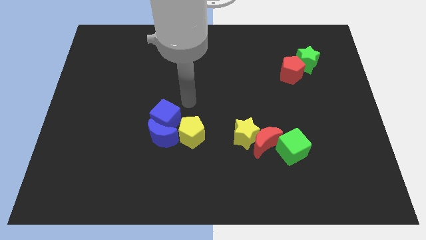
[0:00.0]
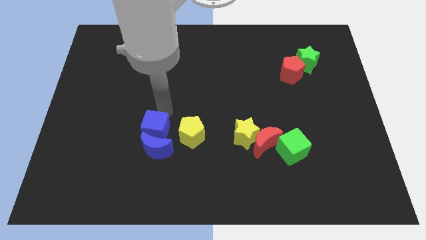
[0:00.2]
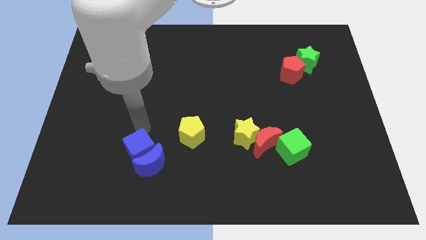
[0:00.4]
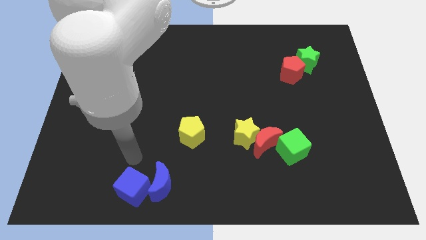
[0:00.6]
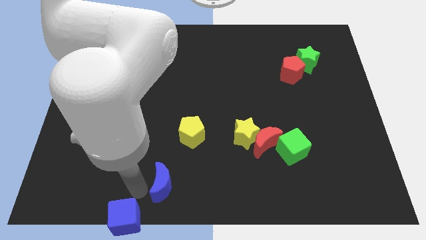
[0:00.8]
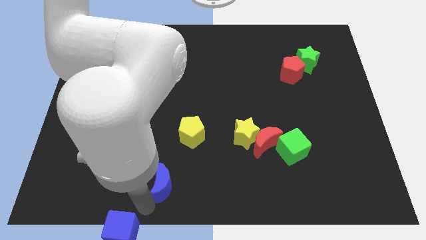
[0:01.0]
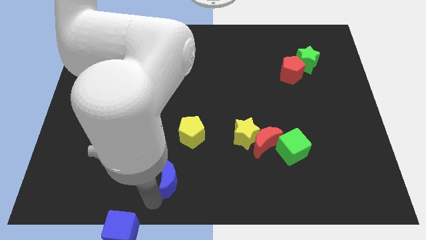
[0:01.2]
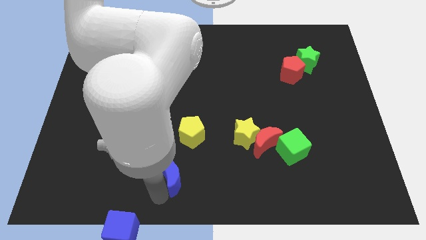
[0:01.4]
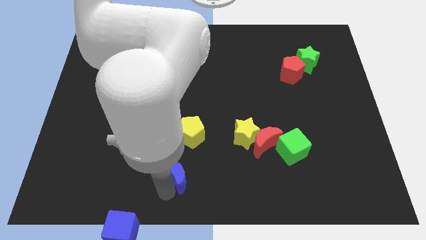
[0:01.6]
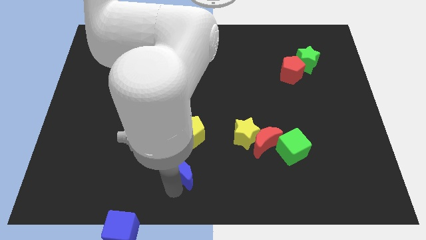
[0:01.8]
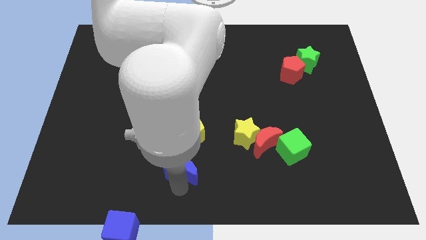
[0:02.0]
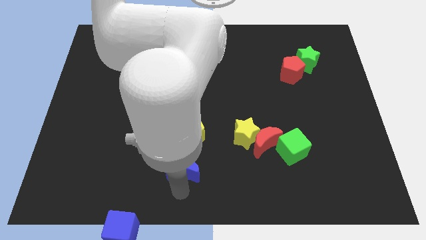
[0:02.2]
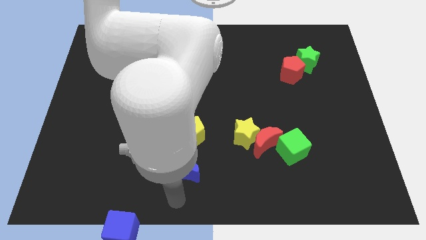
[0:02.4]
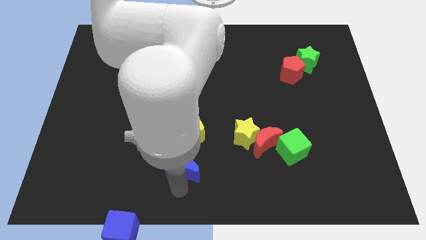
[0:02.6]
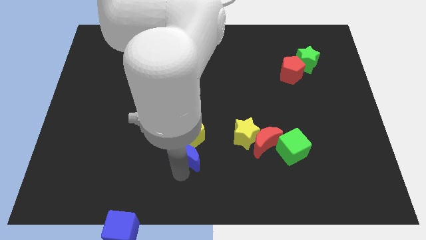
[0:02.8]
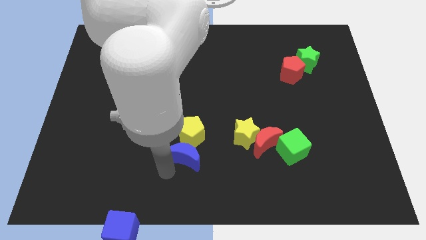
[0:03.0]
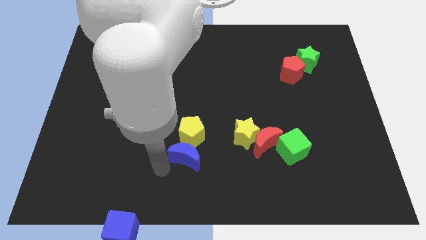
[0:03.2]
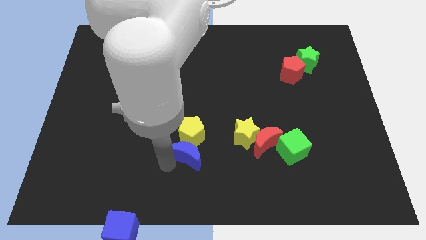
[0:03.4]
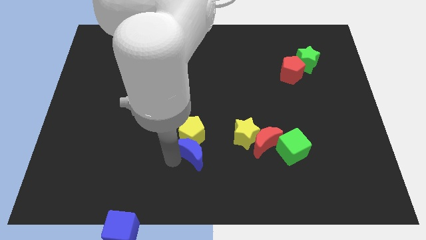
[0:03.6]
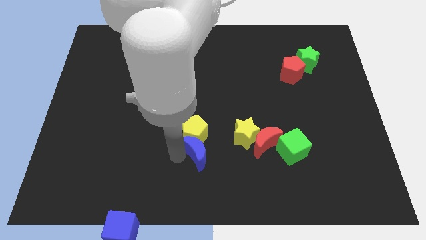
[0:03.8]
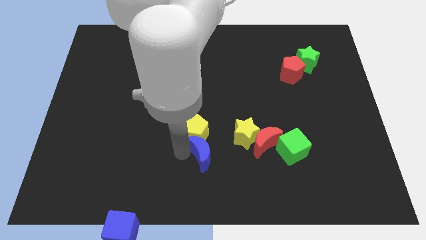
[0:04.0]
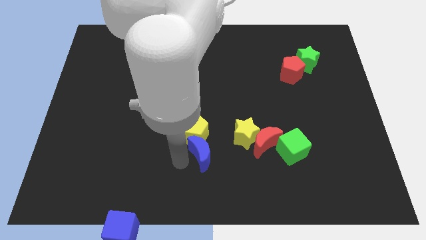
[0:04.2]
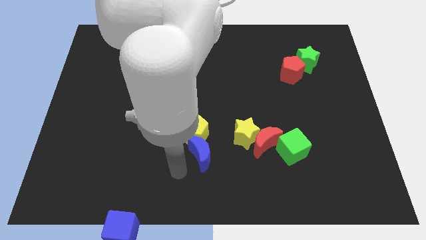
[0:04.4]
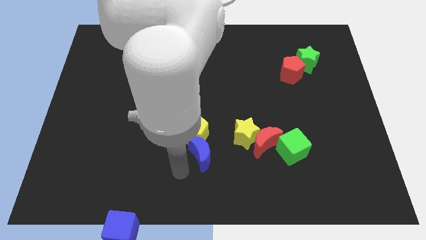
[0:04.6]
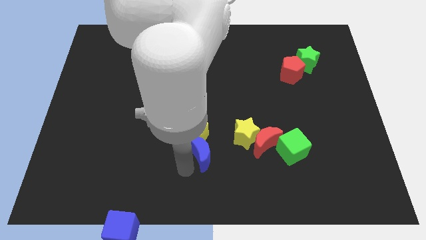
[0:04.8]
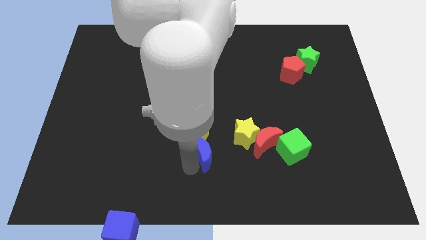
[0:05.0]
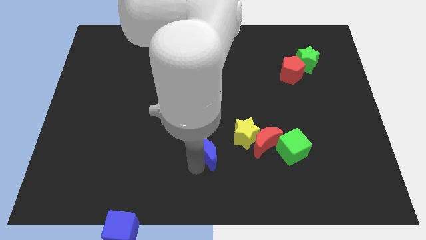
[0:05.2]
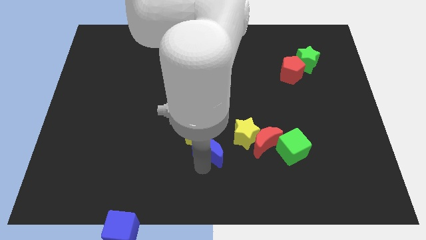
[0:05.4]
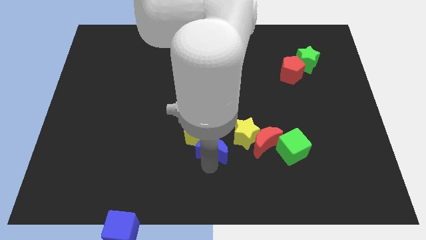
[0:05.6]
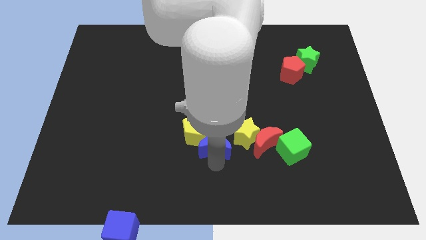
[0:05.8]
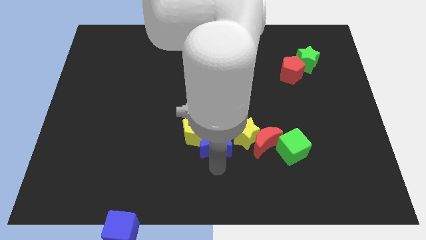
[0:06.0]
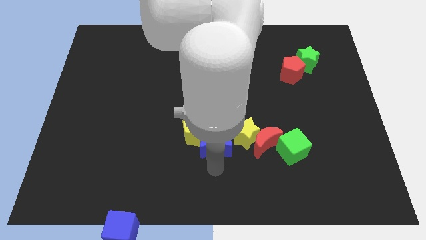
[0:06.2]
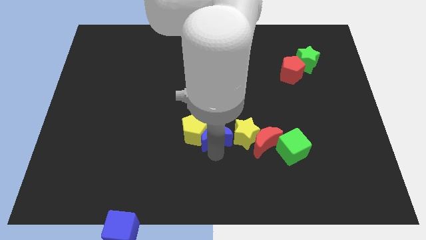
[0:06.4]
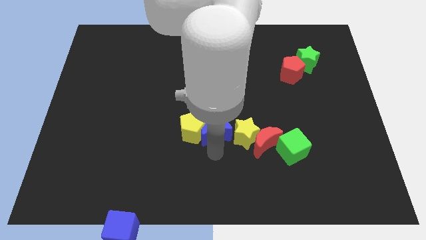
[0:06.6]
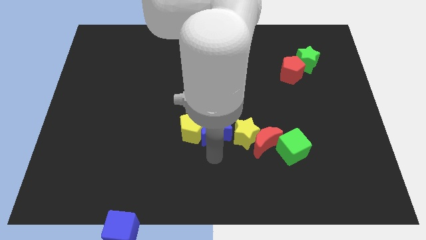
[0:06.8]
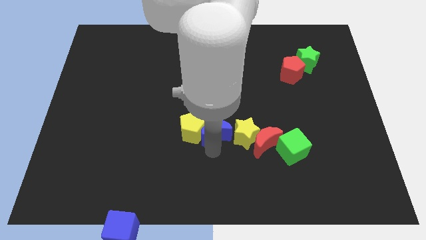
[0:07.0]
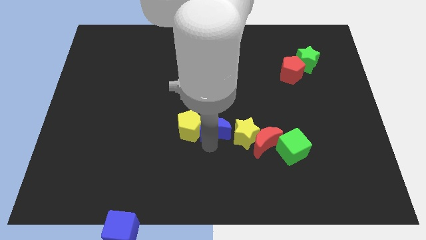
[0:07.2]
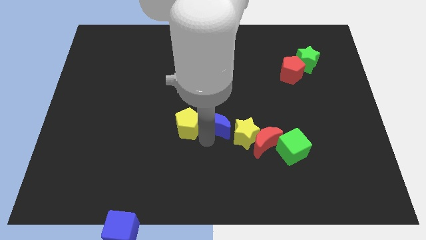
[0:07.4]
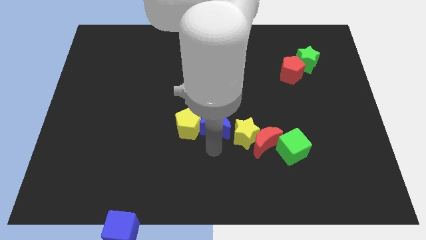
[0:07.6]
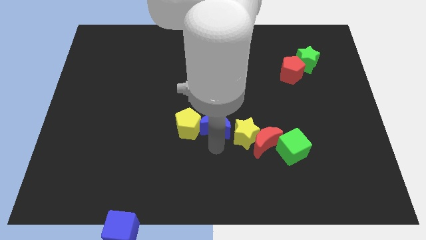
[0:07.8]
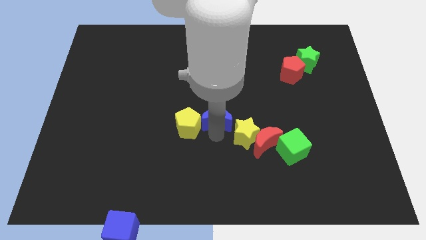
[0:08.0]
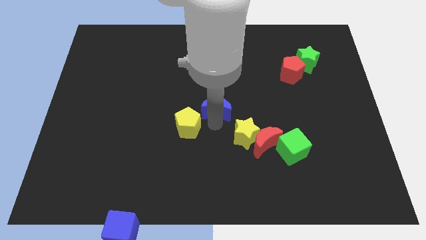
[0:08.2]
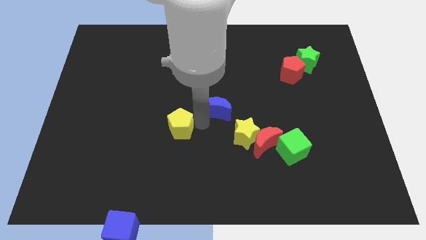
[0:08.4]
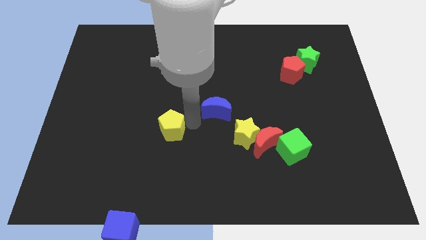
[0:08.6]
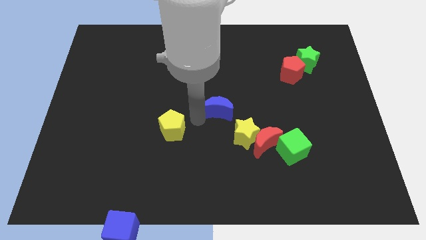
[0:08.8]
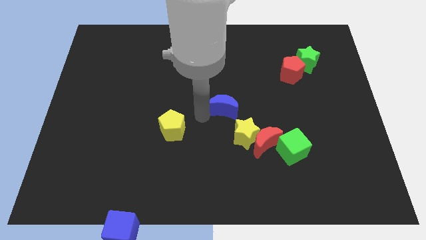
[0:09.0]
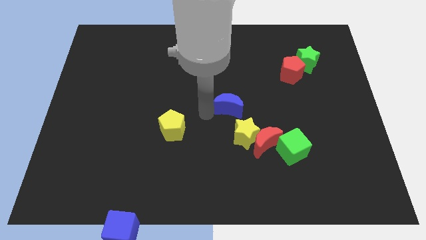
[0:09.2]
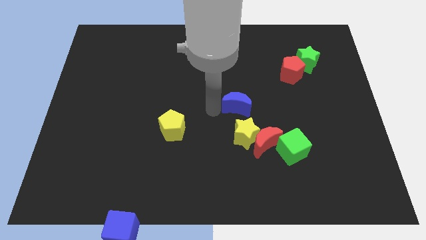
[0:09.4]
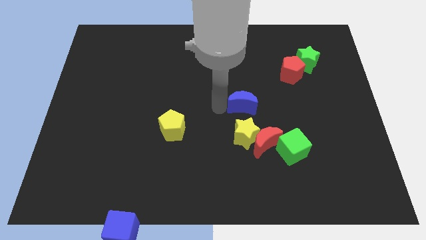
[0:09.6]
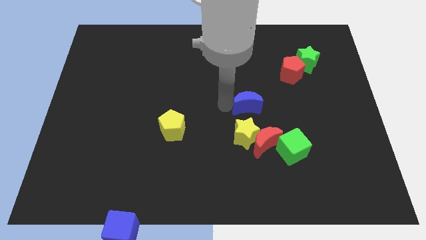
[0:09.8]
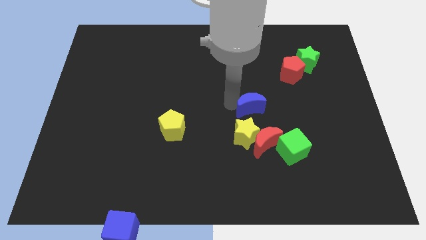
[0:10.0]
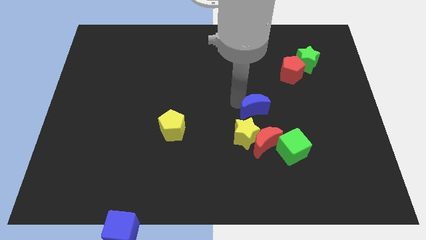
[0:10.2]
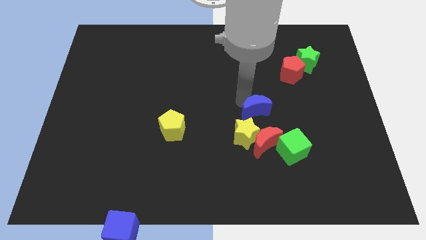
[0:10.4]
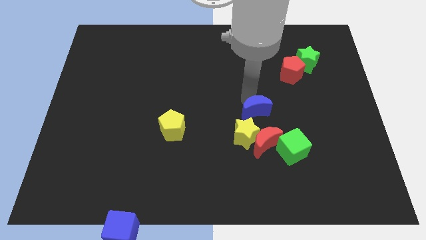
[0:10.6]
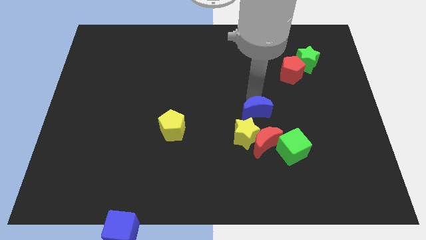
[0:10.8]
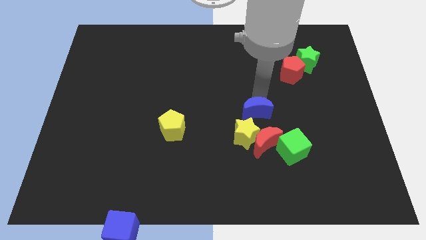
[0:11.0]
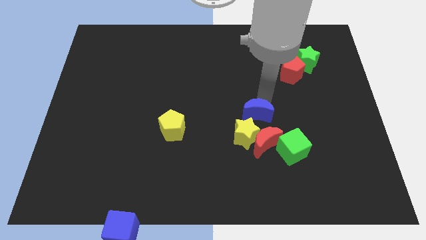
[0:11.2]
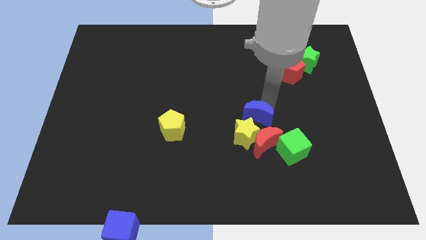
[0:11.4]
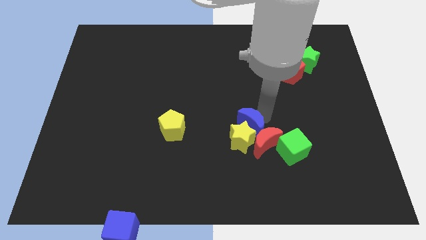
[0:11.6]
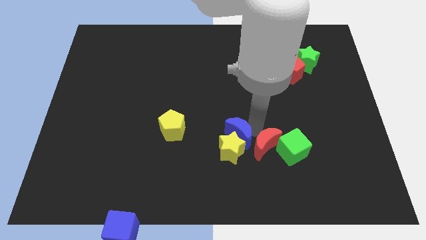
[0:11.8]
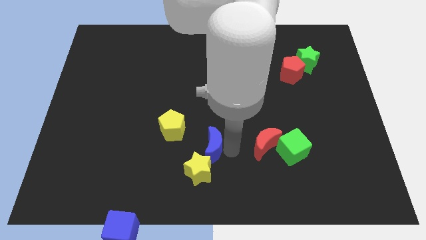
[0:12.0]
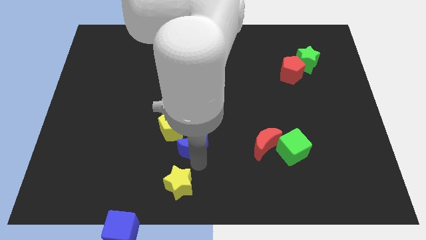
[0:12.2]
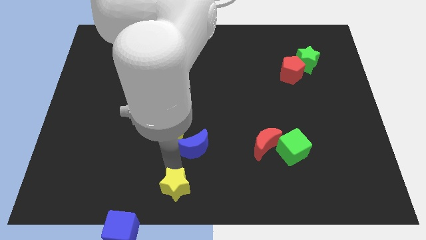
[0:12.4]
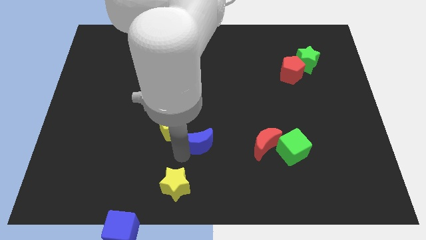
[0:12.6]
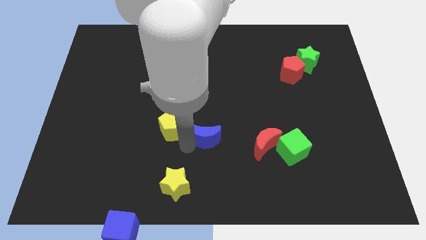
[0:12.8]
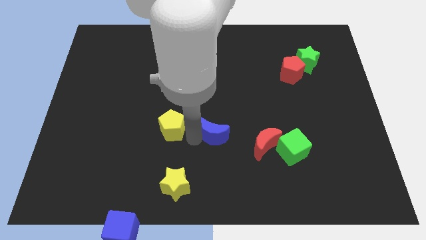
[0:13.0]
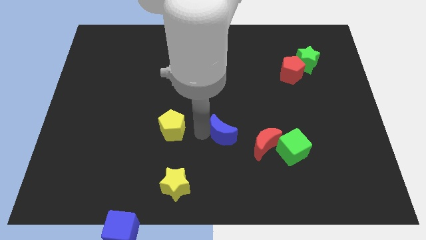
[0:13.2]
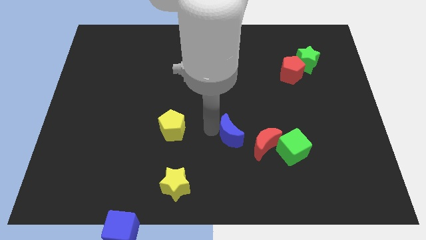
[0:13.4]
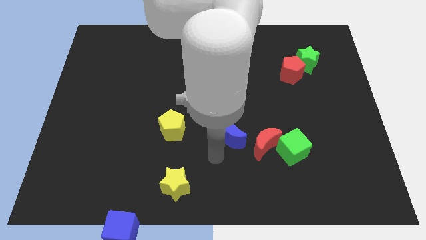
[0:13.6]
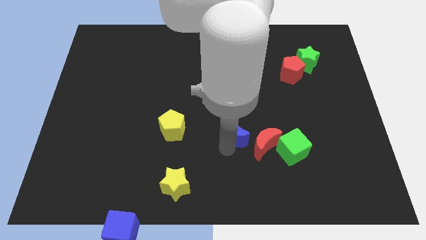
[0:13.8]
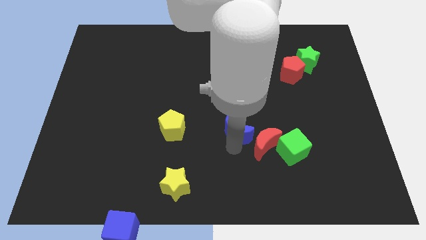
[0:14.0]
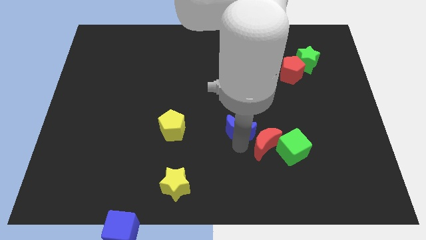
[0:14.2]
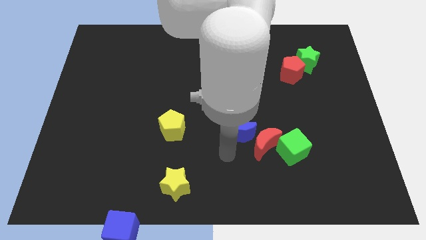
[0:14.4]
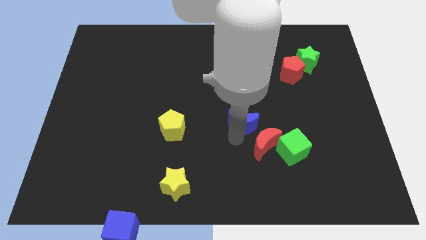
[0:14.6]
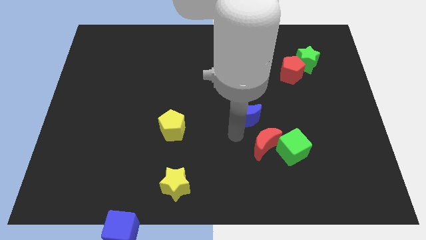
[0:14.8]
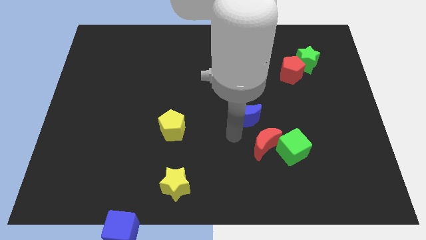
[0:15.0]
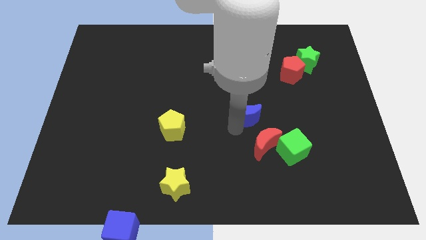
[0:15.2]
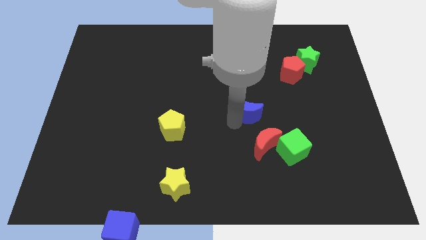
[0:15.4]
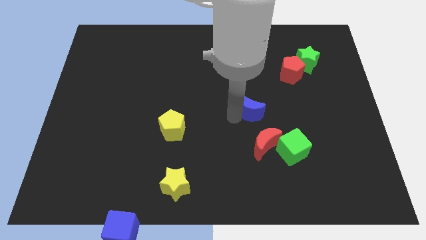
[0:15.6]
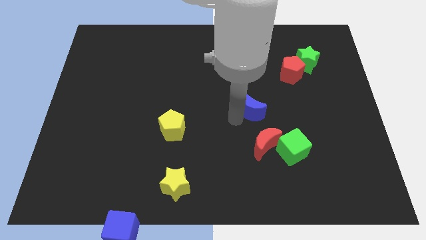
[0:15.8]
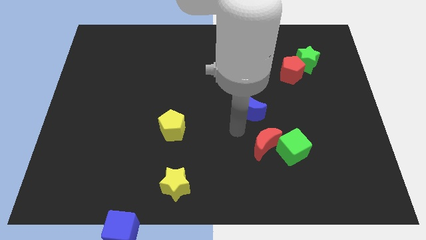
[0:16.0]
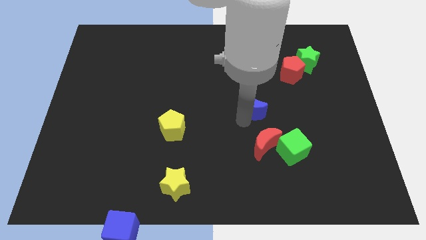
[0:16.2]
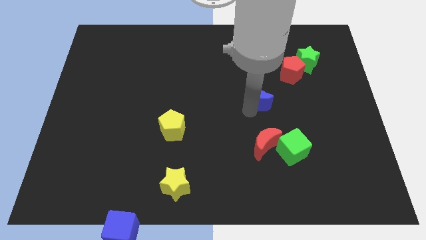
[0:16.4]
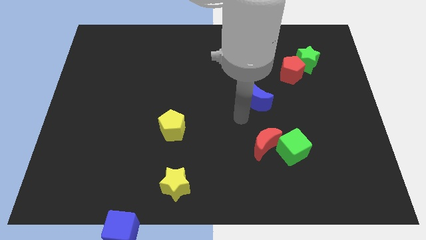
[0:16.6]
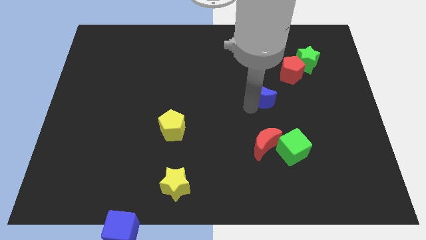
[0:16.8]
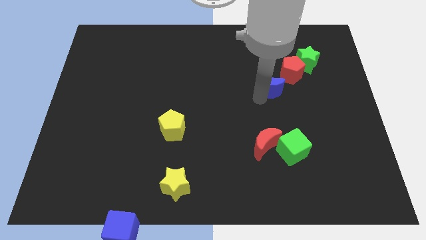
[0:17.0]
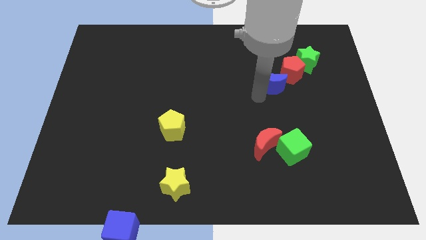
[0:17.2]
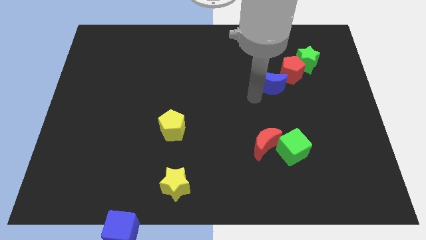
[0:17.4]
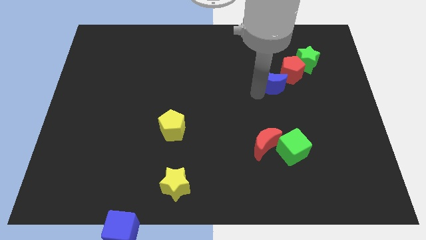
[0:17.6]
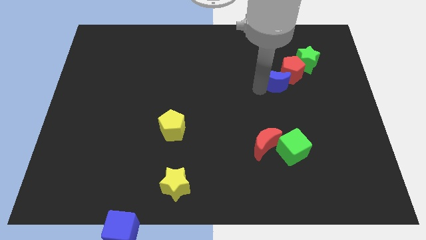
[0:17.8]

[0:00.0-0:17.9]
put the blue moon to the red pentagon
